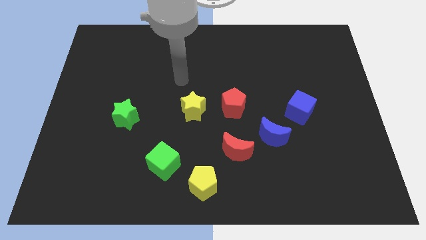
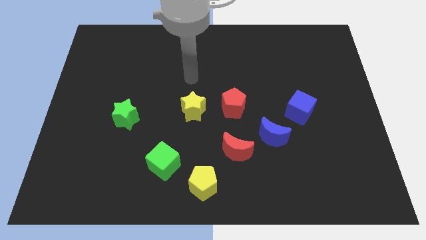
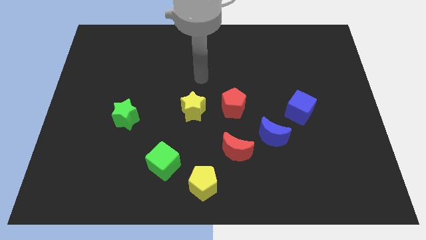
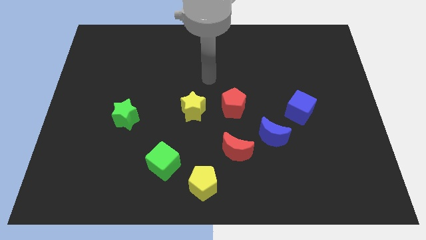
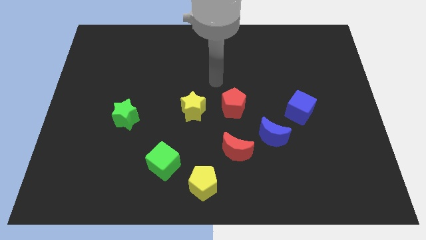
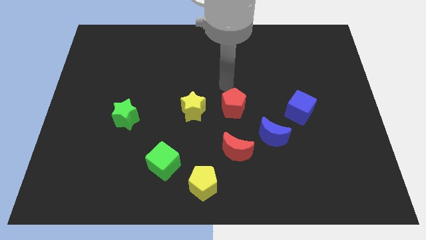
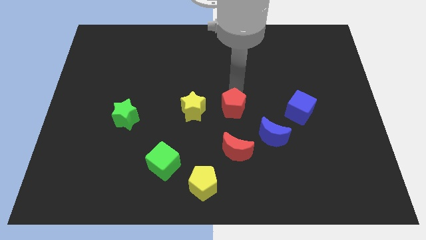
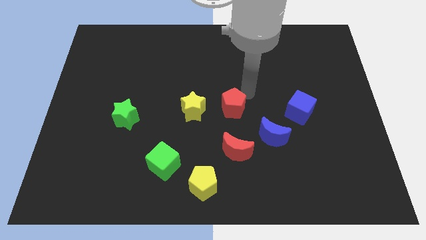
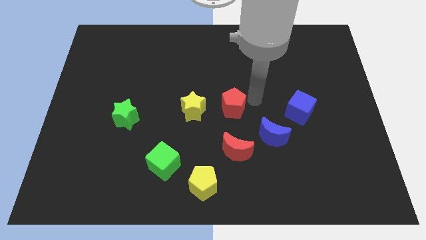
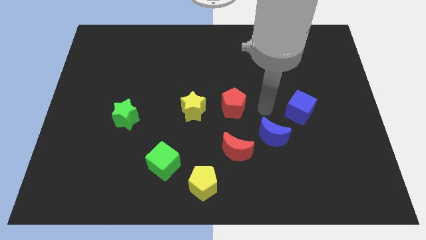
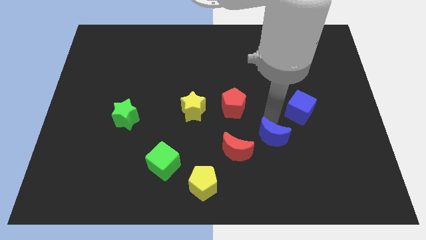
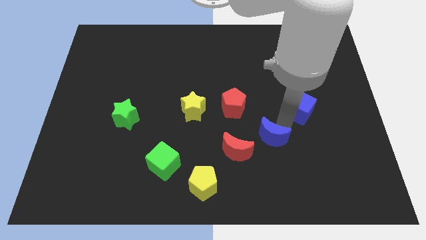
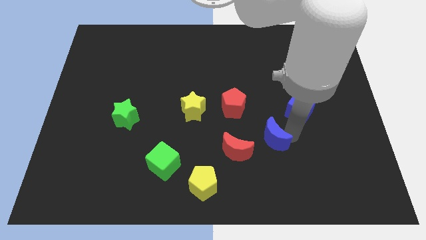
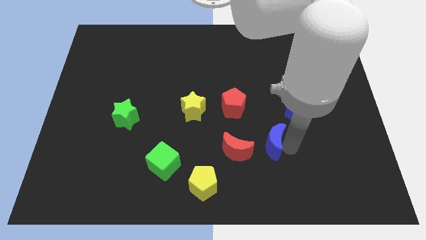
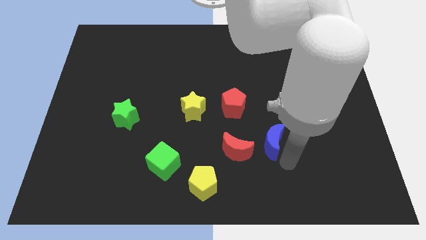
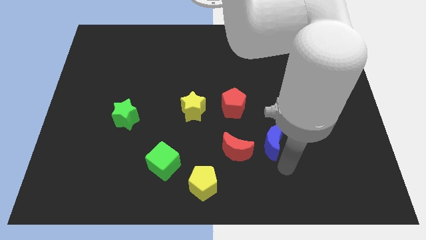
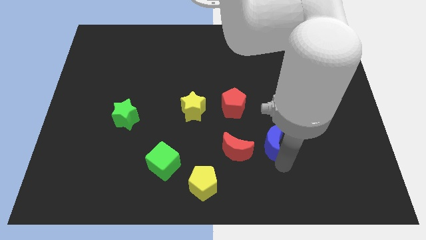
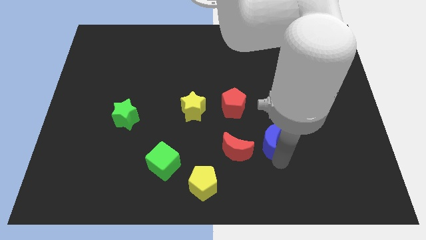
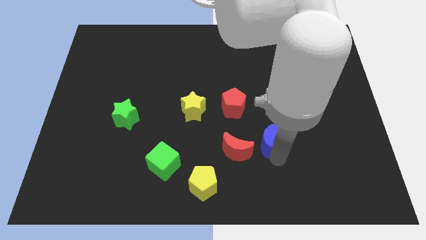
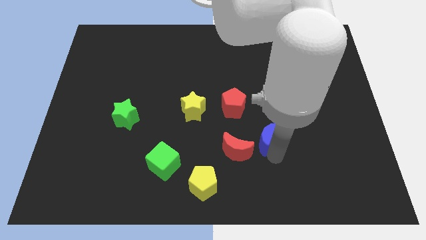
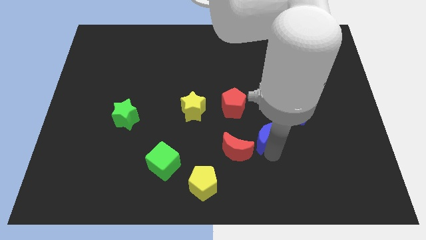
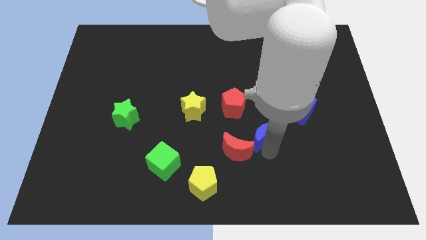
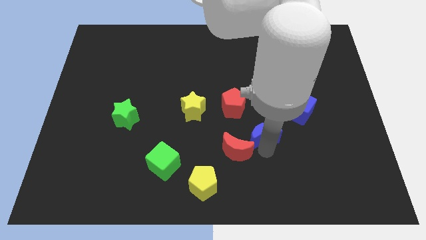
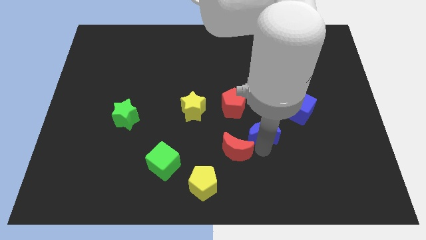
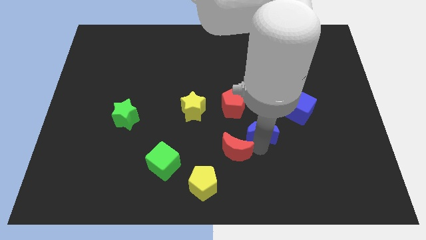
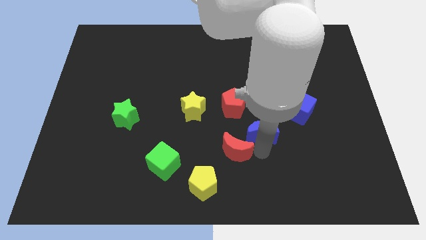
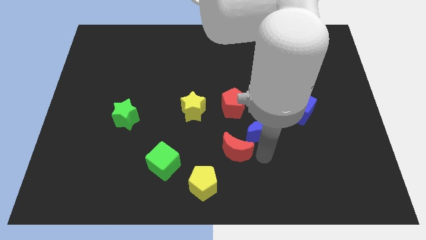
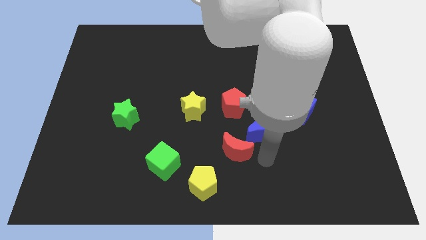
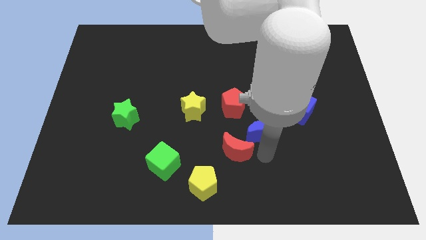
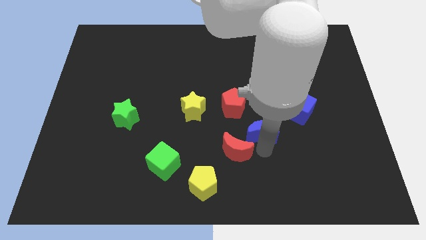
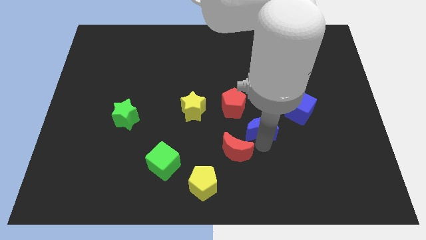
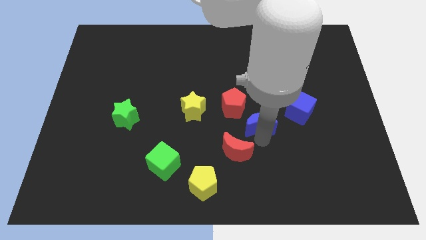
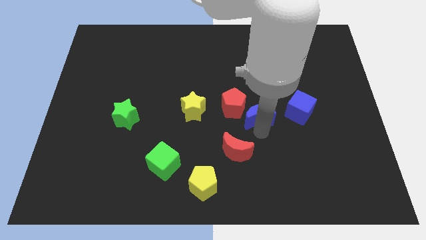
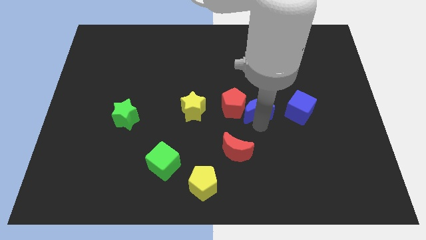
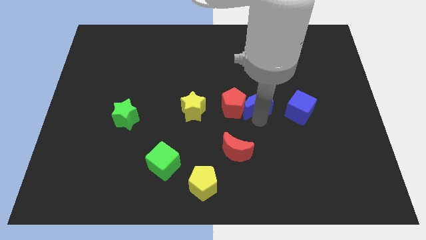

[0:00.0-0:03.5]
slightly push the blue moon up and then left

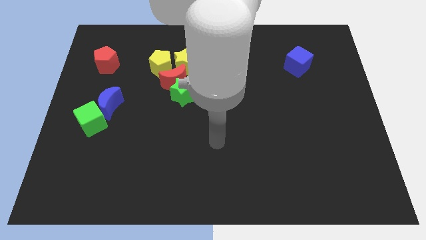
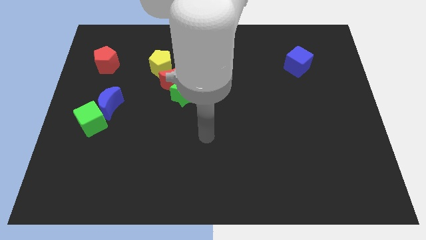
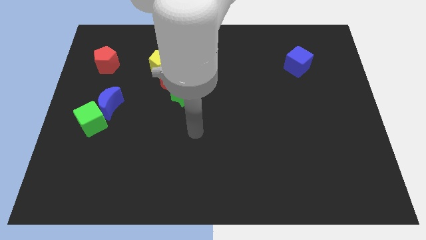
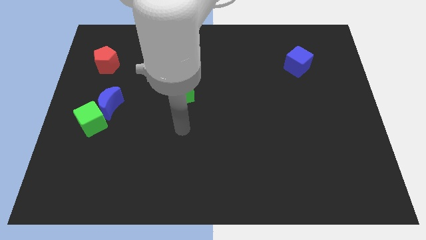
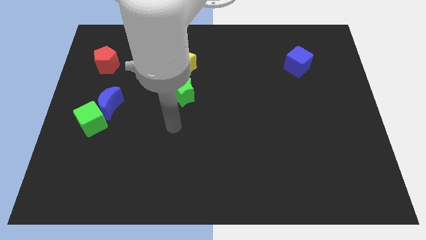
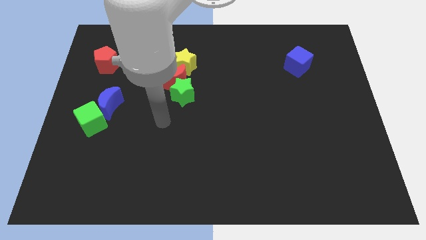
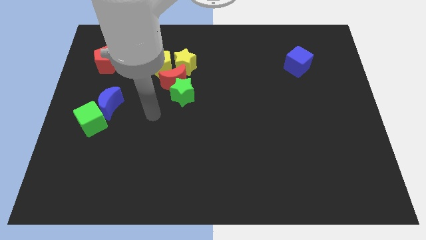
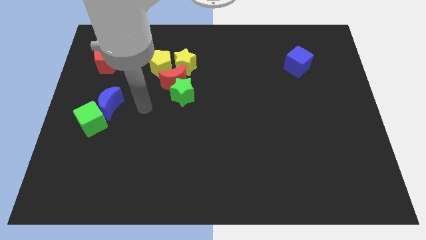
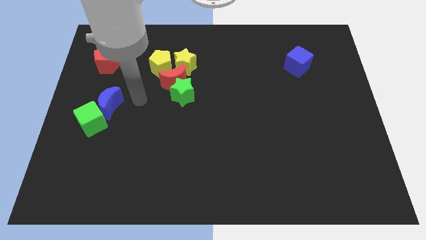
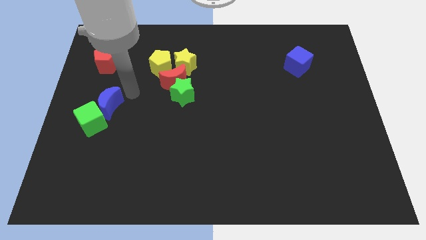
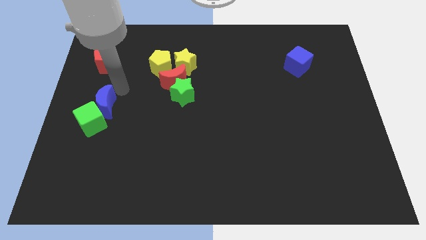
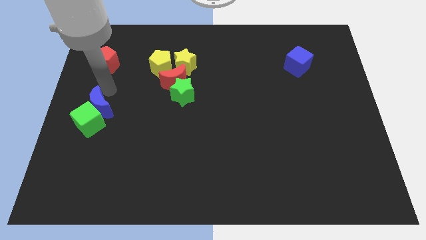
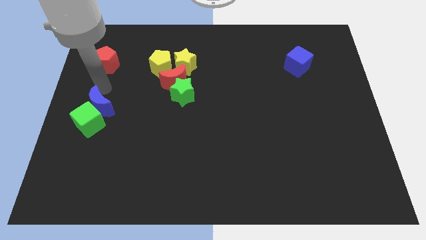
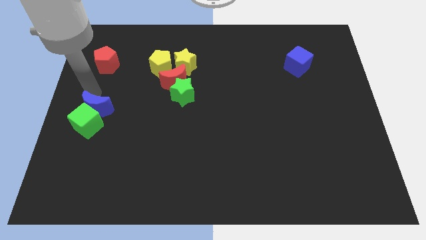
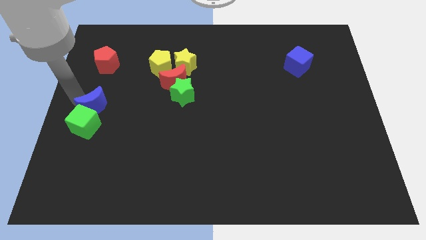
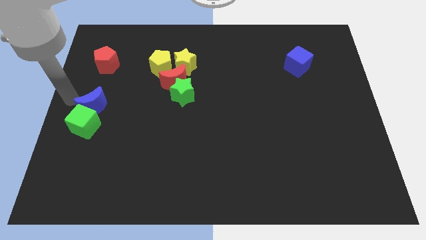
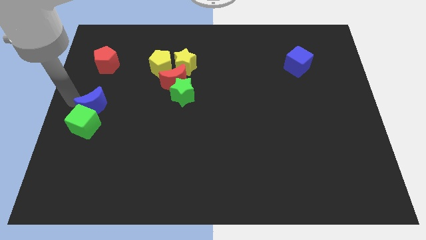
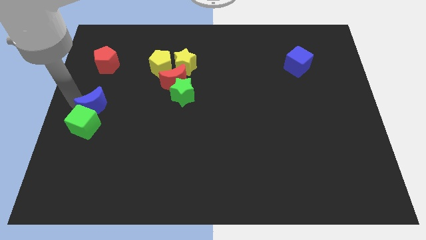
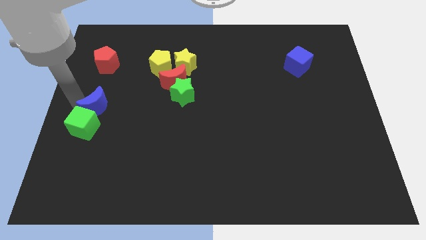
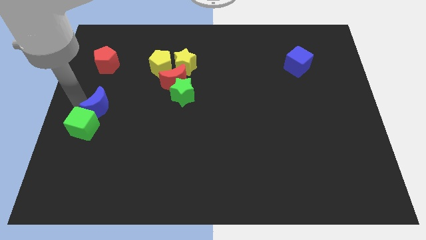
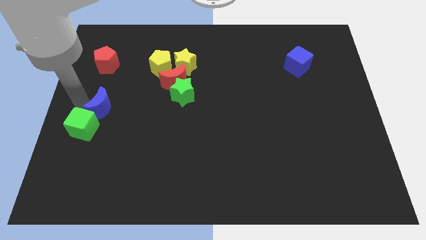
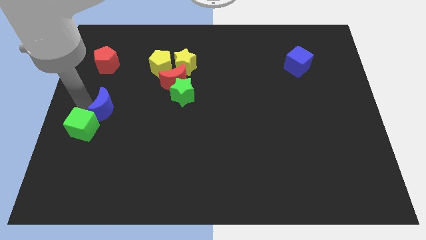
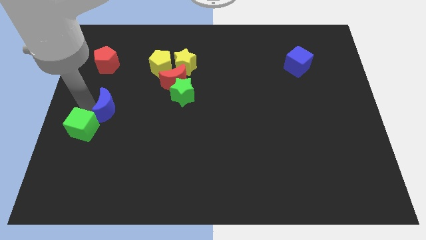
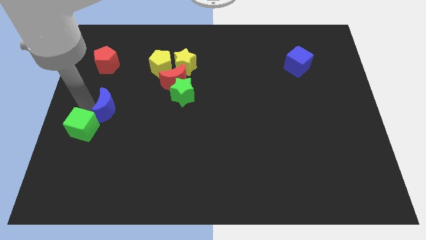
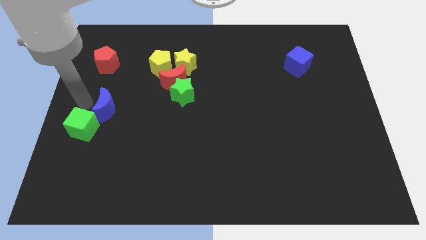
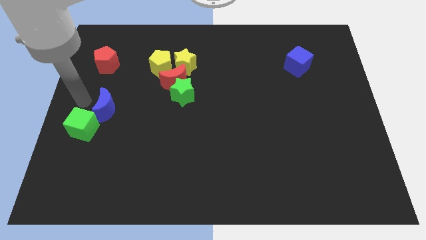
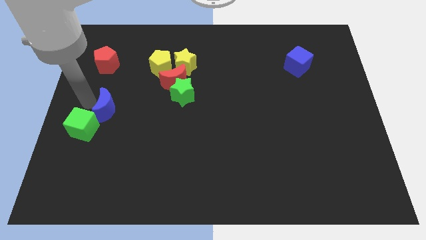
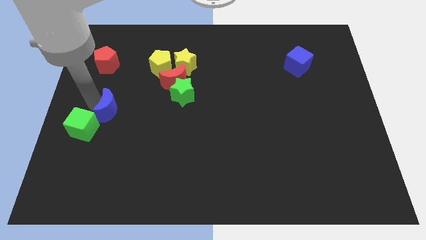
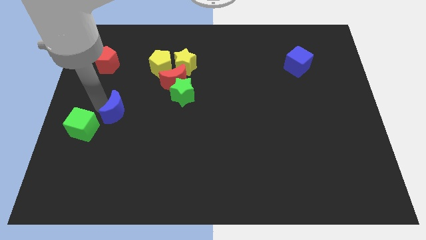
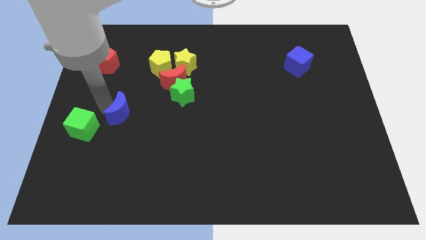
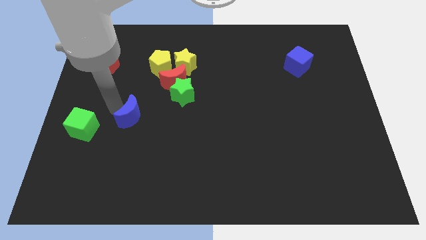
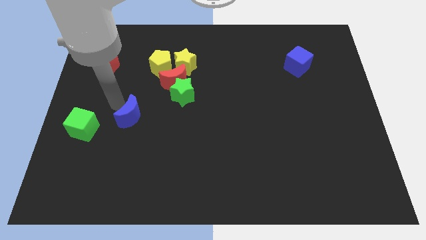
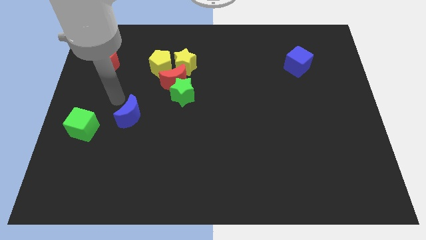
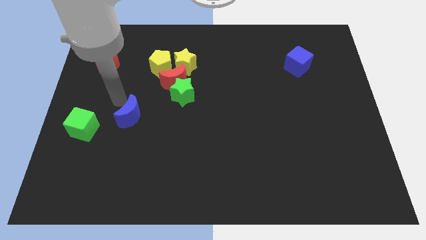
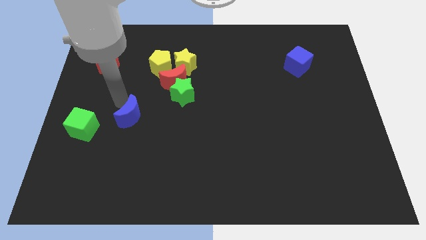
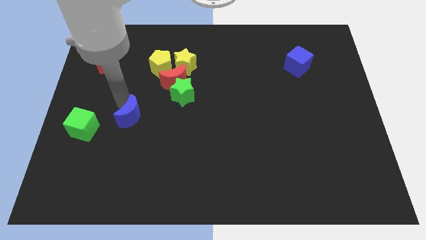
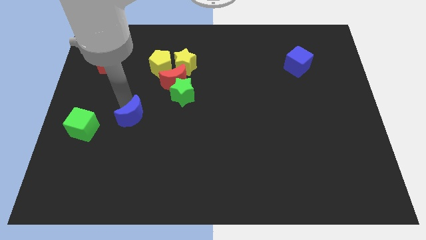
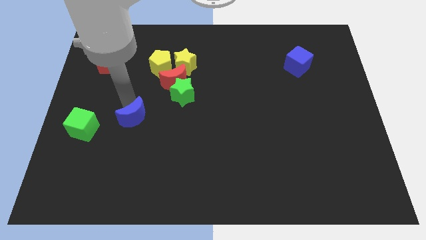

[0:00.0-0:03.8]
slightly slide the blue moon down and right

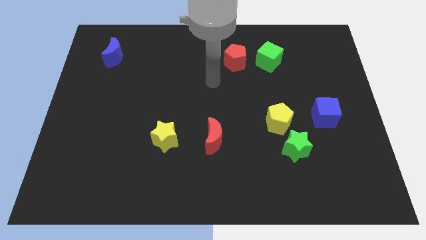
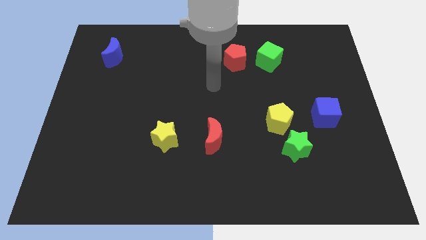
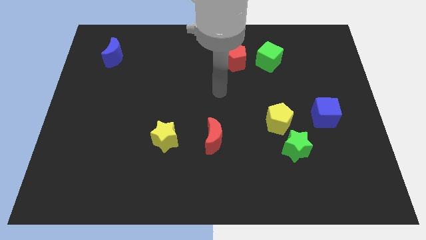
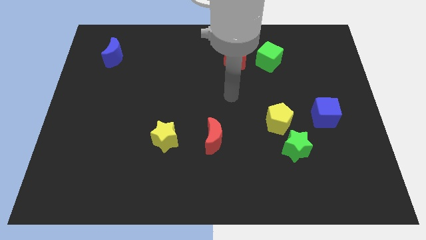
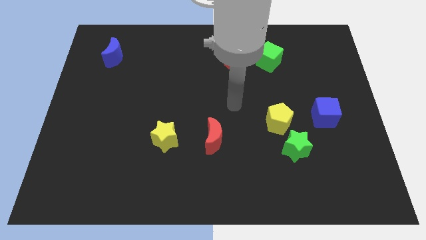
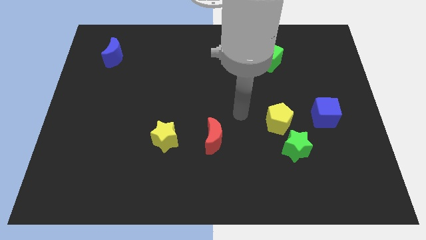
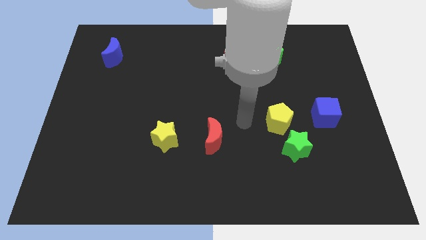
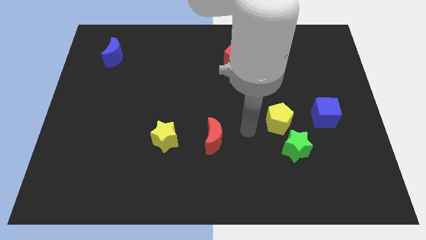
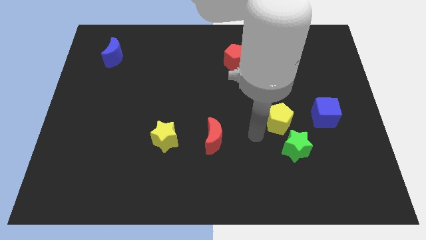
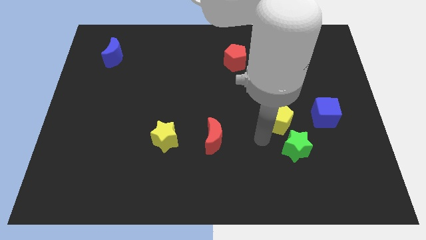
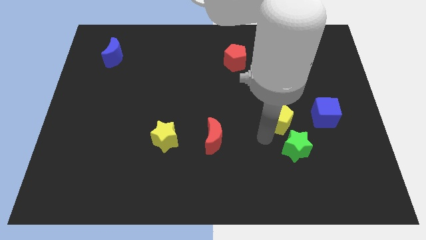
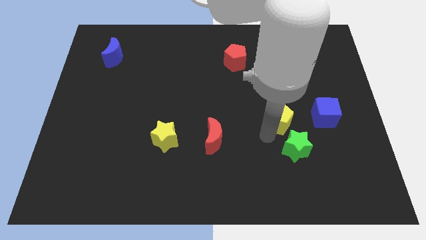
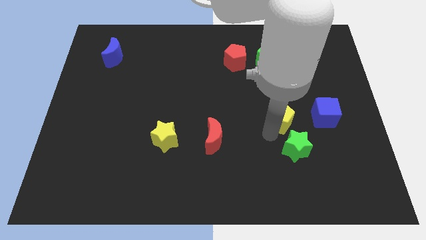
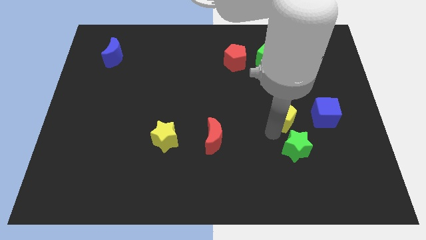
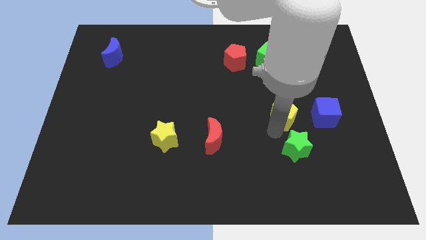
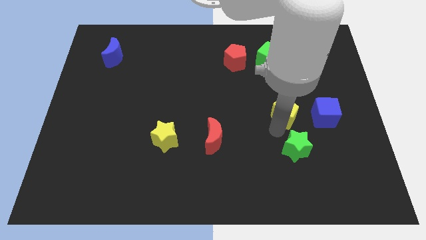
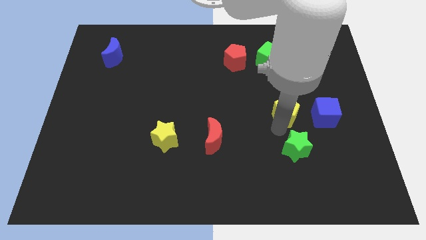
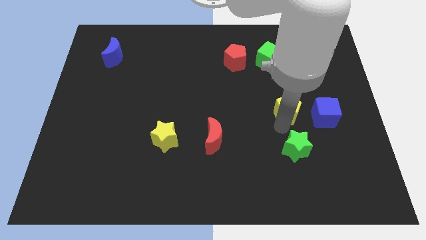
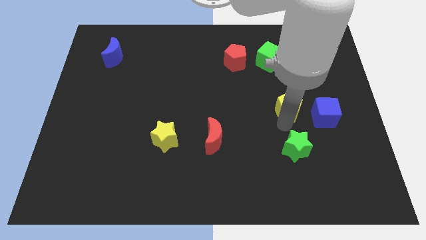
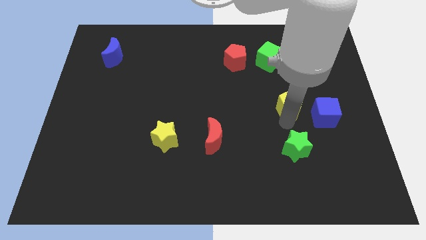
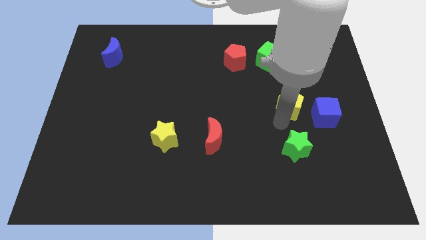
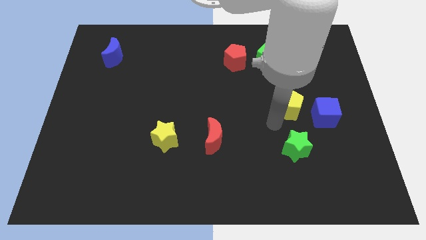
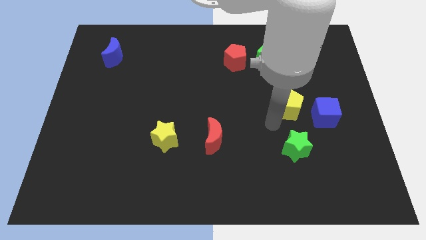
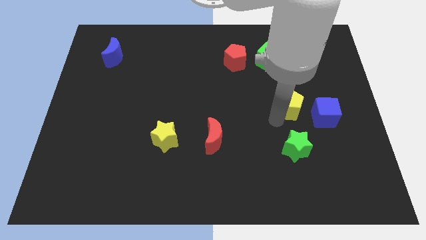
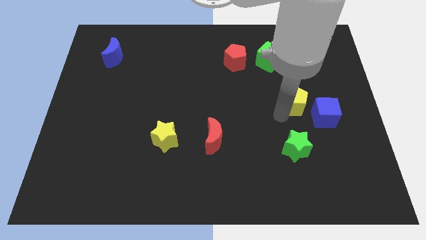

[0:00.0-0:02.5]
slightly slide the yellow pentagon up and to the right
